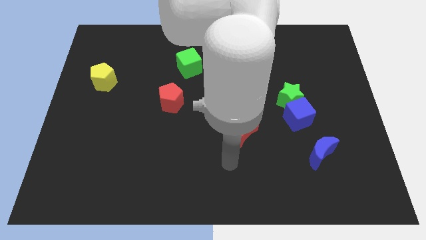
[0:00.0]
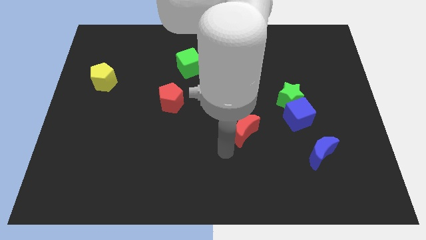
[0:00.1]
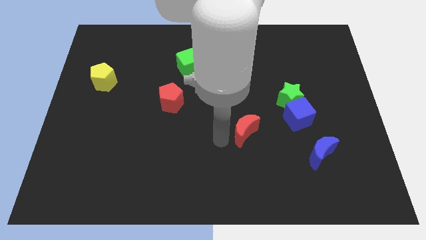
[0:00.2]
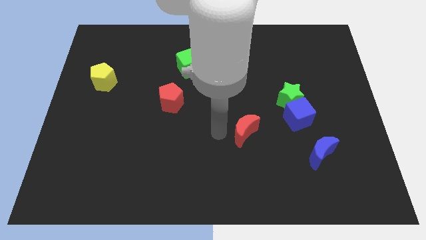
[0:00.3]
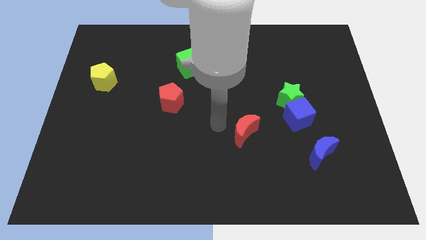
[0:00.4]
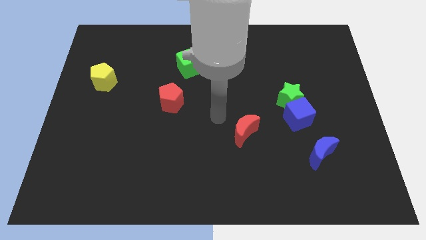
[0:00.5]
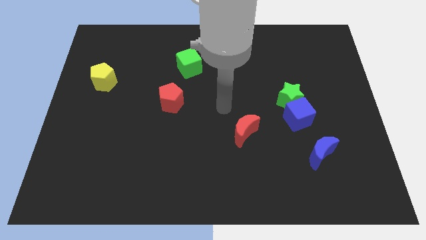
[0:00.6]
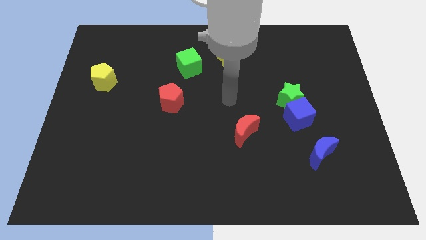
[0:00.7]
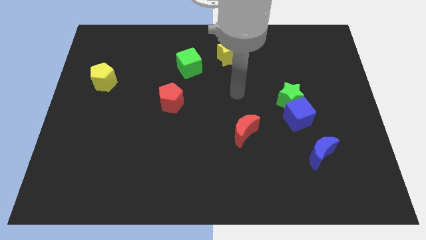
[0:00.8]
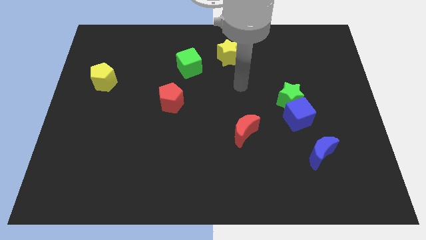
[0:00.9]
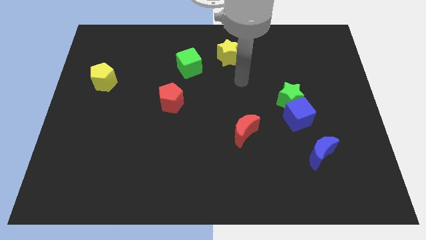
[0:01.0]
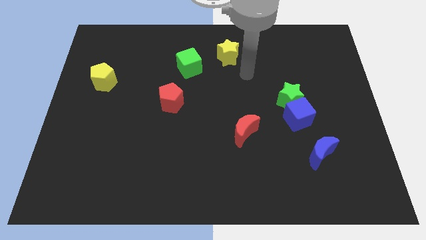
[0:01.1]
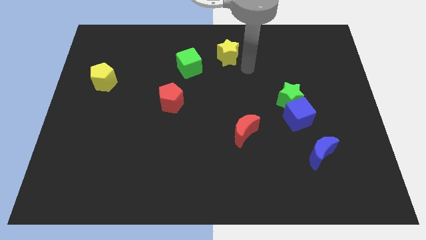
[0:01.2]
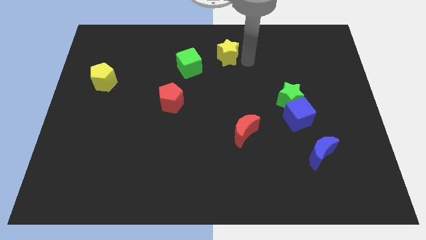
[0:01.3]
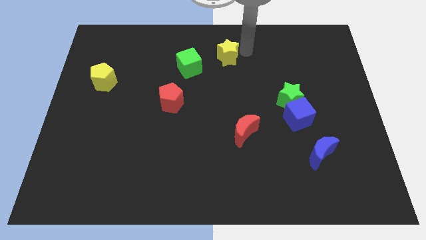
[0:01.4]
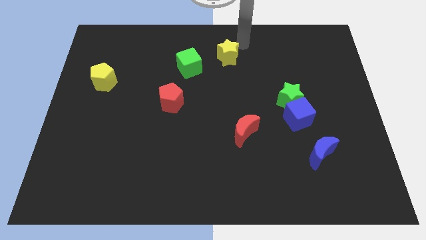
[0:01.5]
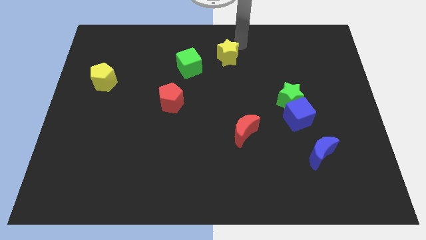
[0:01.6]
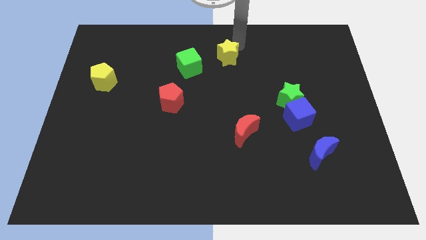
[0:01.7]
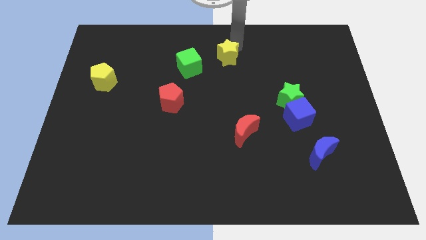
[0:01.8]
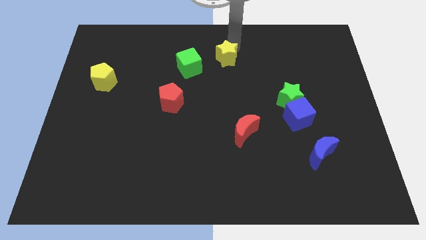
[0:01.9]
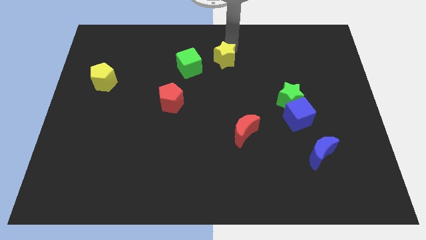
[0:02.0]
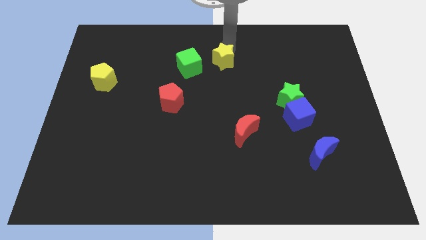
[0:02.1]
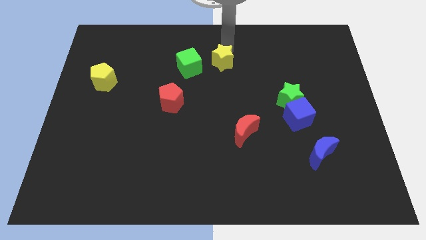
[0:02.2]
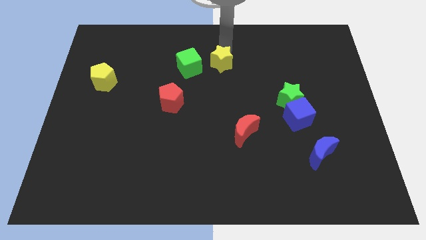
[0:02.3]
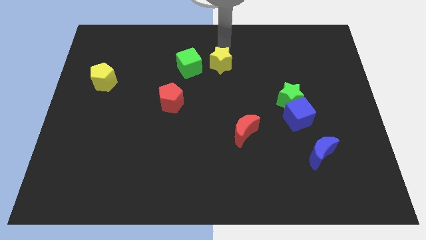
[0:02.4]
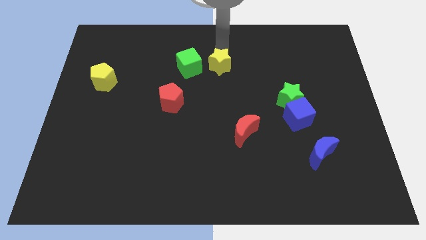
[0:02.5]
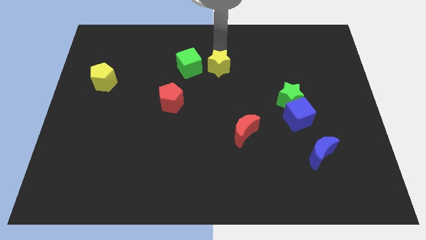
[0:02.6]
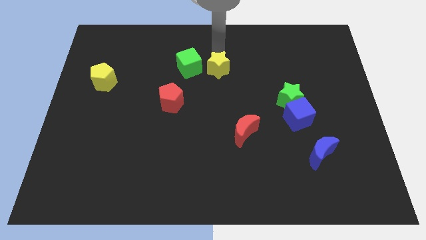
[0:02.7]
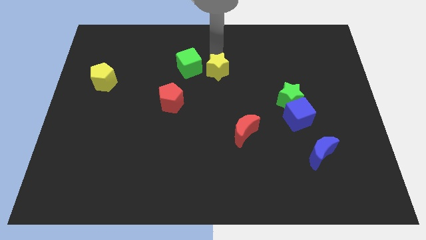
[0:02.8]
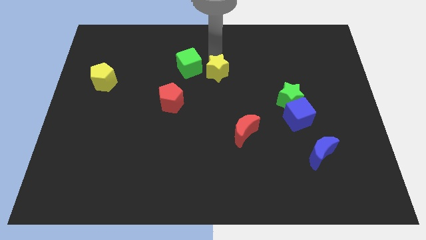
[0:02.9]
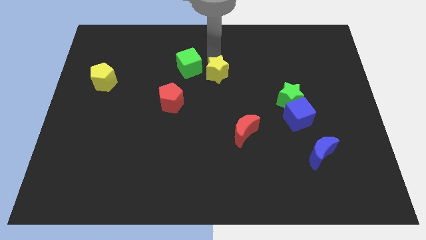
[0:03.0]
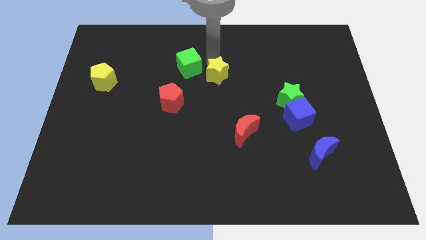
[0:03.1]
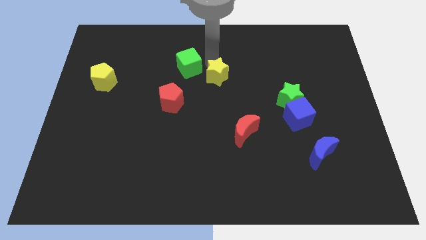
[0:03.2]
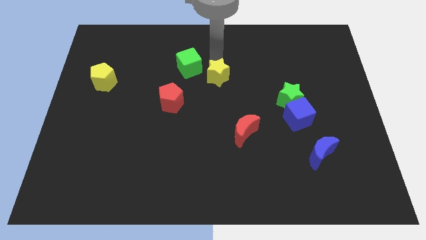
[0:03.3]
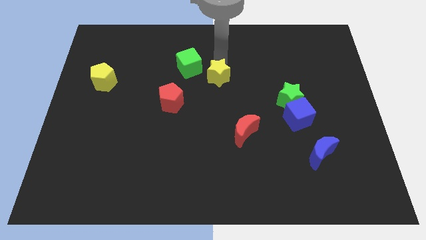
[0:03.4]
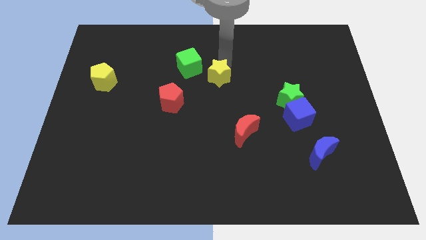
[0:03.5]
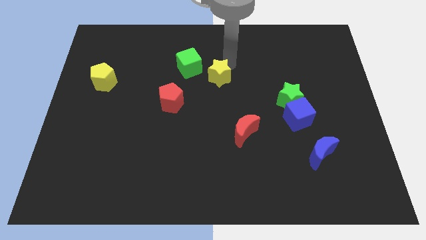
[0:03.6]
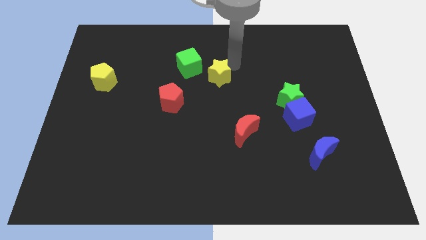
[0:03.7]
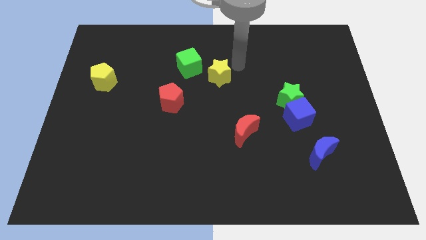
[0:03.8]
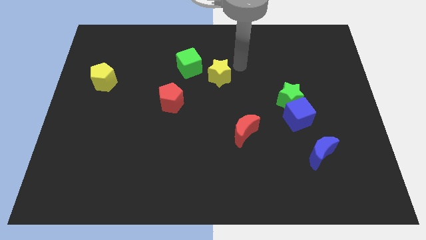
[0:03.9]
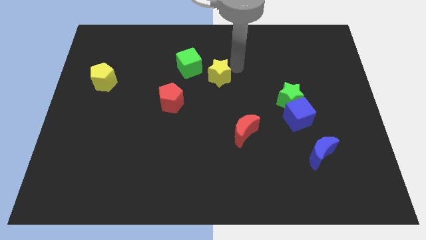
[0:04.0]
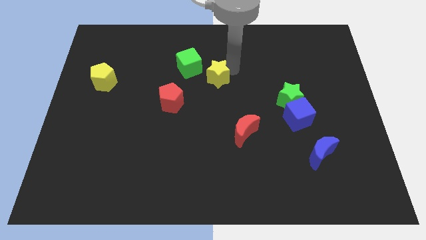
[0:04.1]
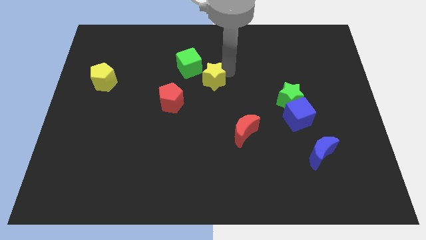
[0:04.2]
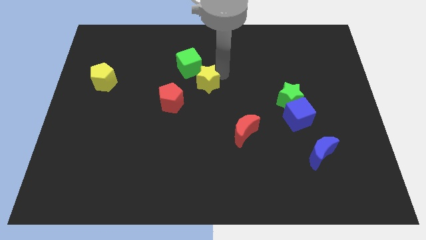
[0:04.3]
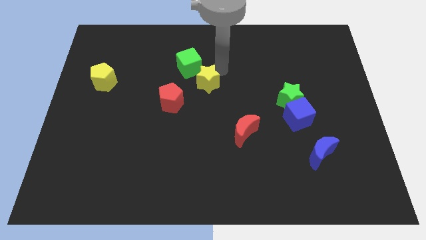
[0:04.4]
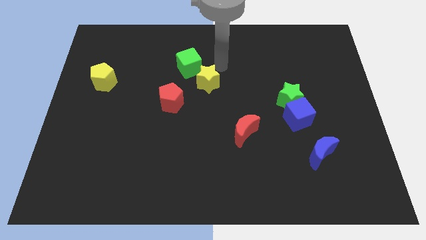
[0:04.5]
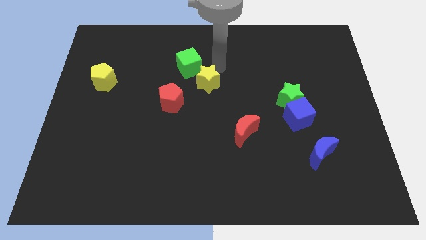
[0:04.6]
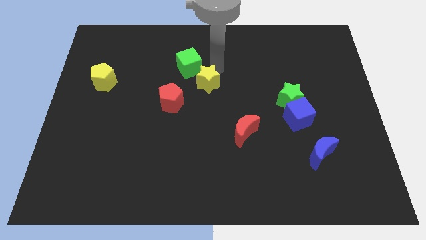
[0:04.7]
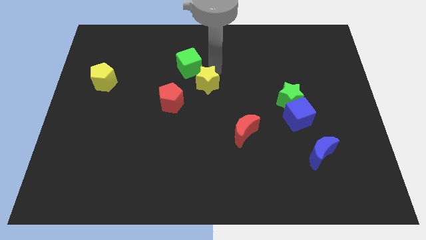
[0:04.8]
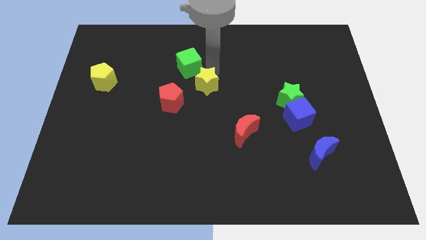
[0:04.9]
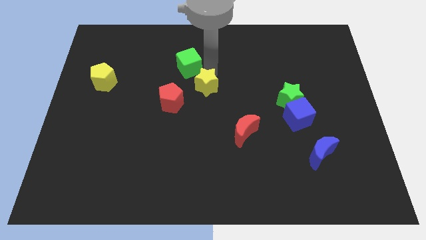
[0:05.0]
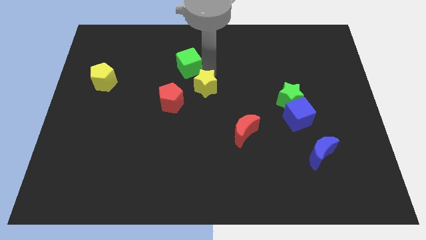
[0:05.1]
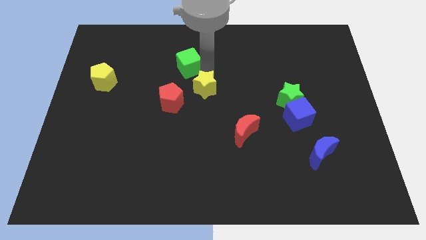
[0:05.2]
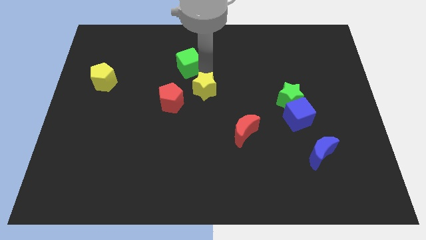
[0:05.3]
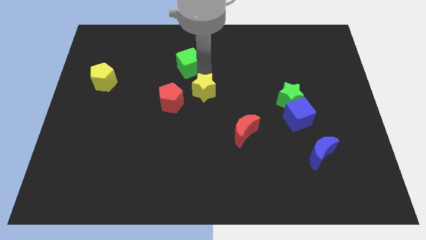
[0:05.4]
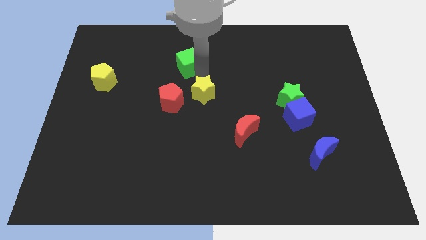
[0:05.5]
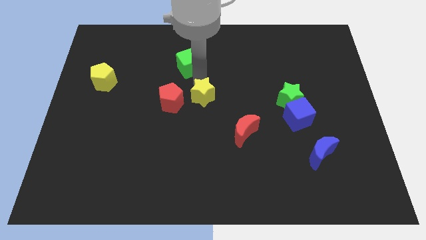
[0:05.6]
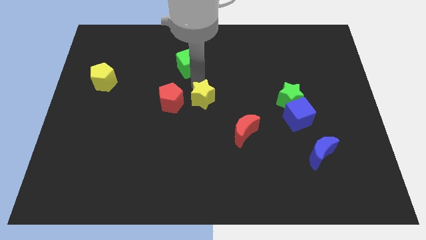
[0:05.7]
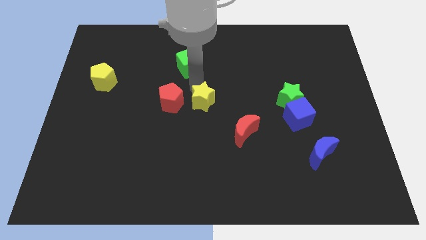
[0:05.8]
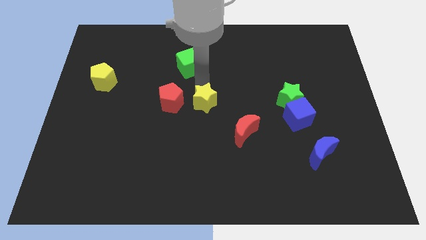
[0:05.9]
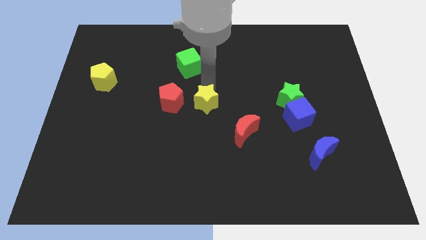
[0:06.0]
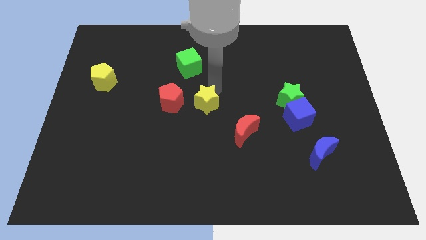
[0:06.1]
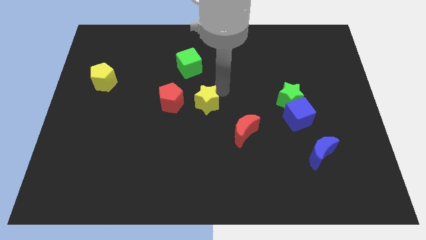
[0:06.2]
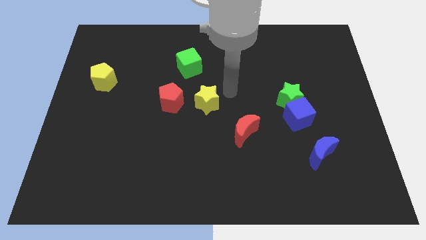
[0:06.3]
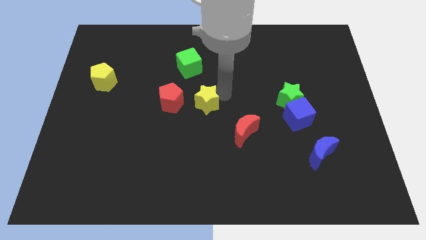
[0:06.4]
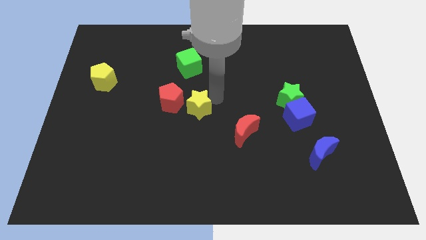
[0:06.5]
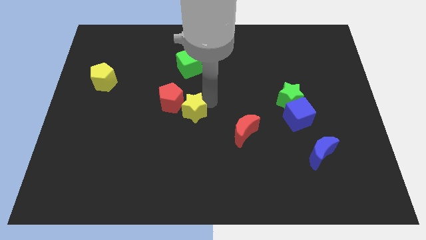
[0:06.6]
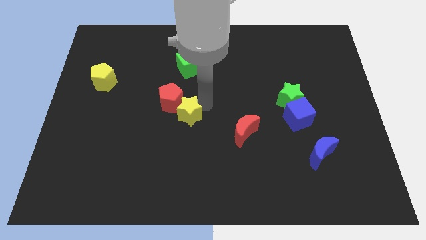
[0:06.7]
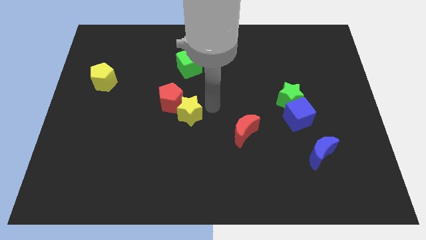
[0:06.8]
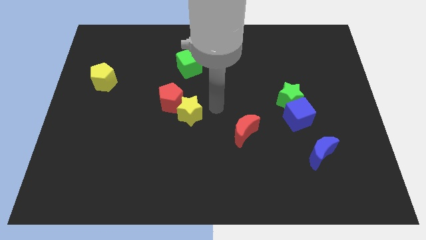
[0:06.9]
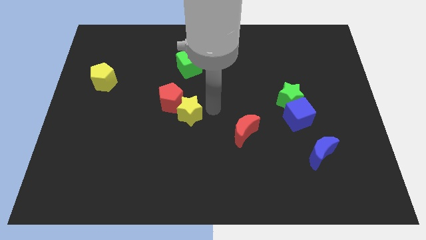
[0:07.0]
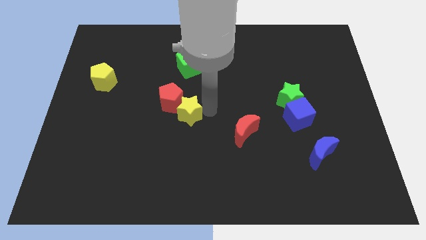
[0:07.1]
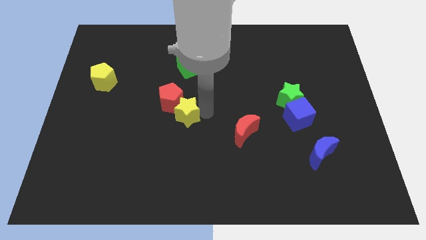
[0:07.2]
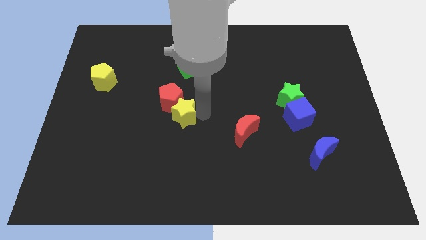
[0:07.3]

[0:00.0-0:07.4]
move the yellow star down and left diagonally

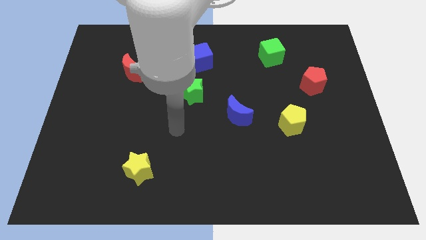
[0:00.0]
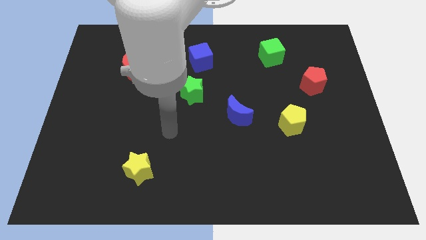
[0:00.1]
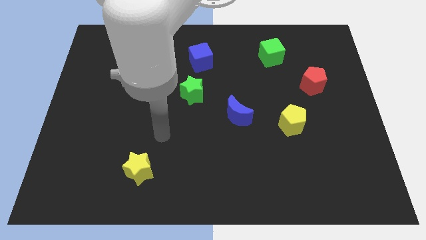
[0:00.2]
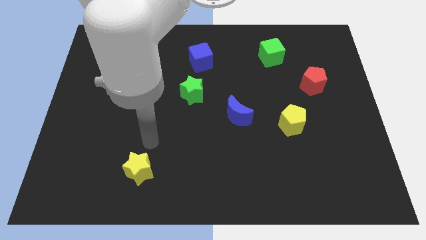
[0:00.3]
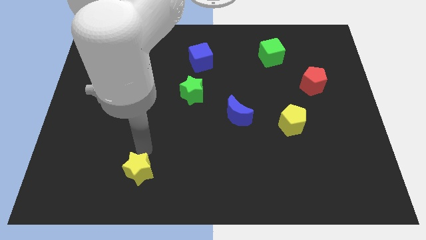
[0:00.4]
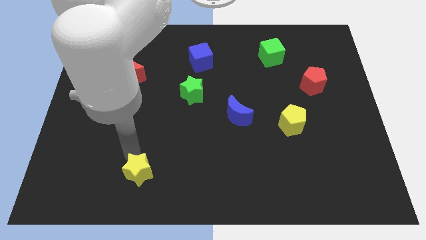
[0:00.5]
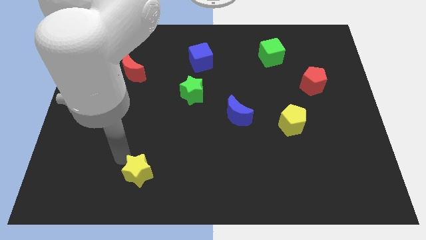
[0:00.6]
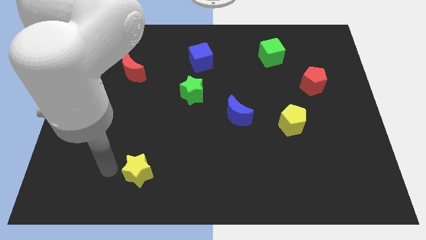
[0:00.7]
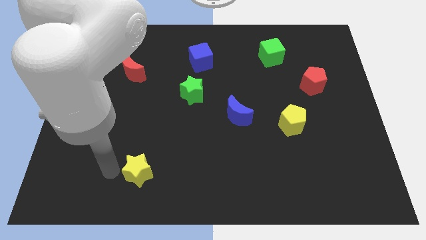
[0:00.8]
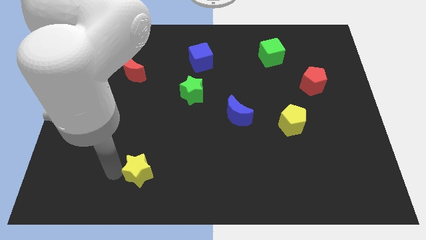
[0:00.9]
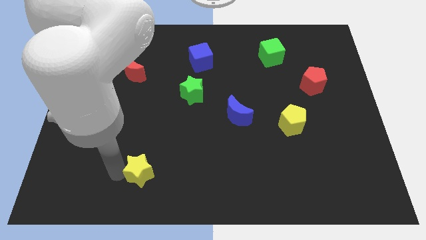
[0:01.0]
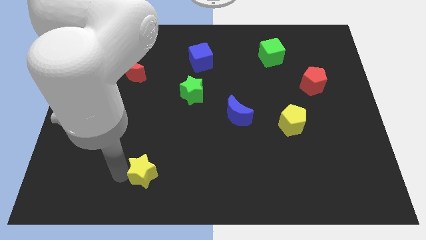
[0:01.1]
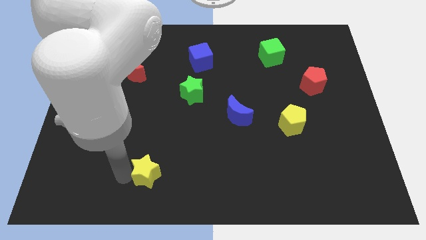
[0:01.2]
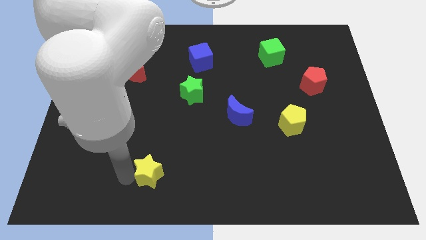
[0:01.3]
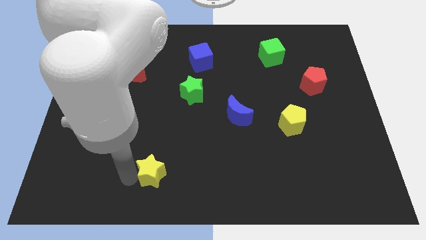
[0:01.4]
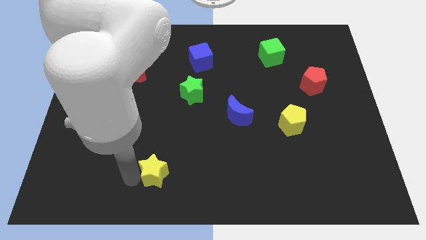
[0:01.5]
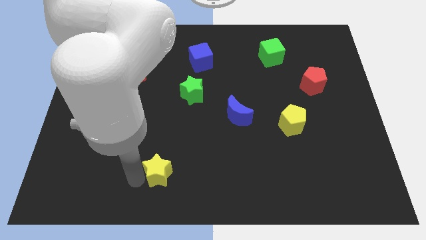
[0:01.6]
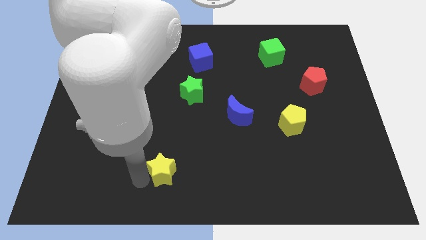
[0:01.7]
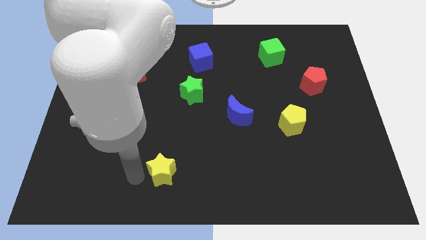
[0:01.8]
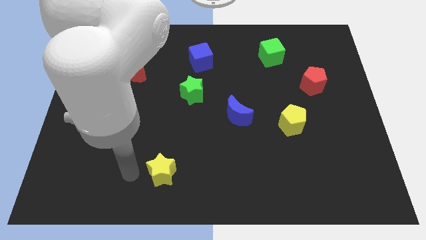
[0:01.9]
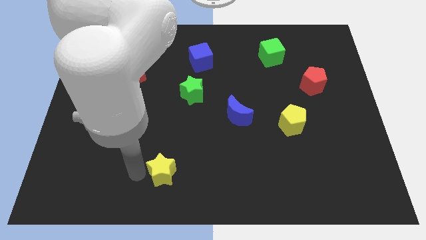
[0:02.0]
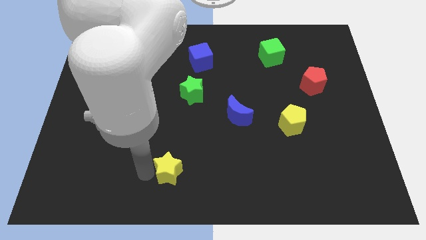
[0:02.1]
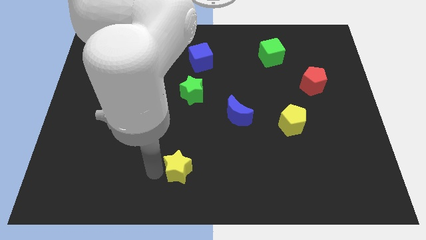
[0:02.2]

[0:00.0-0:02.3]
move the yellow star somewhat to the right
